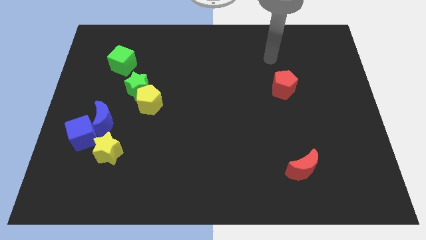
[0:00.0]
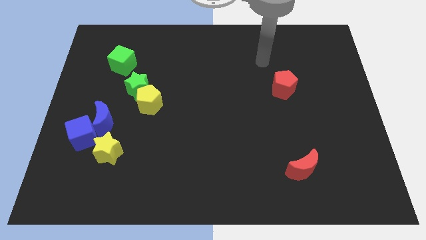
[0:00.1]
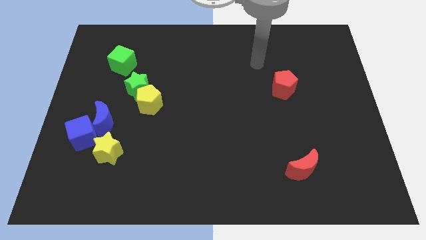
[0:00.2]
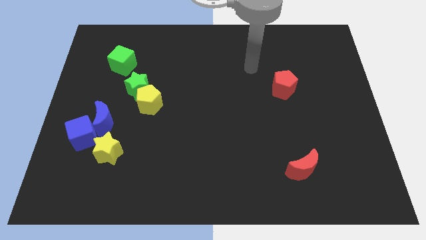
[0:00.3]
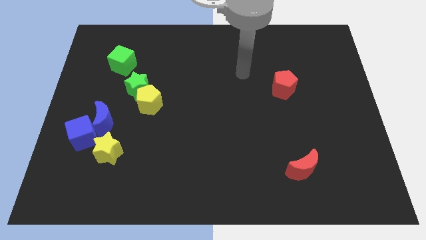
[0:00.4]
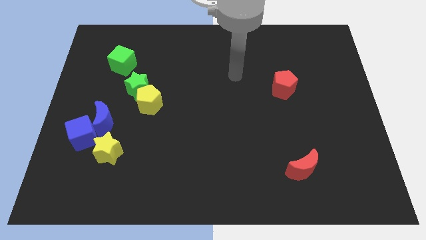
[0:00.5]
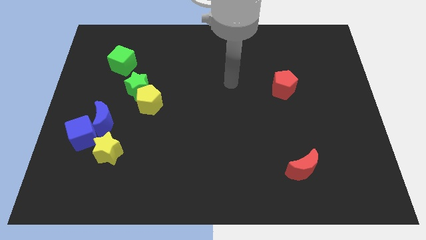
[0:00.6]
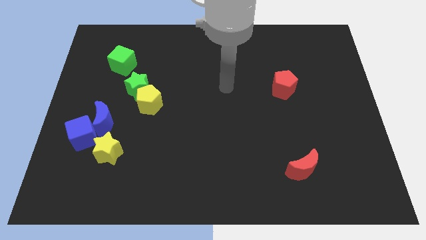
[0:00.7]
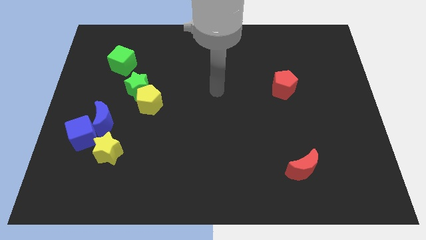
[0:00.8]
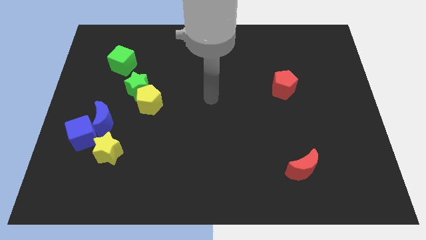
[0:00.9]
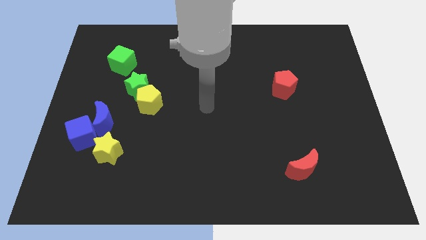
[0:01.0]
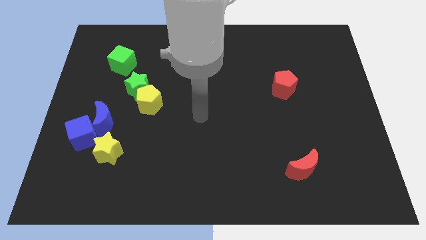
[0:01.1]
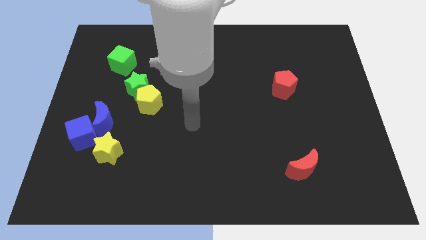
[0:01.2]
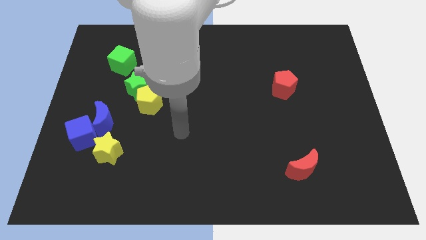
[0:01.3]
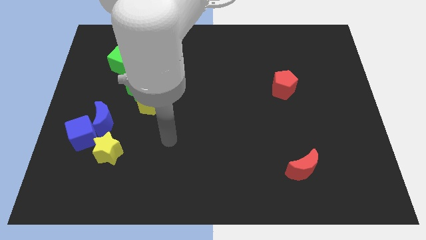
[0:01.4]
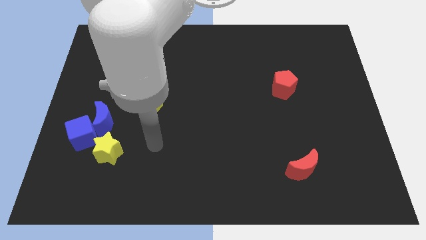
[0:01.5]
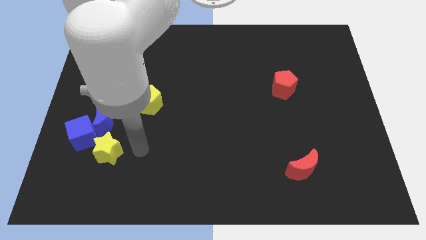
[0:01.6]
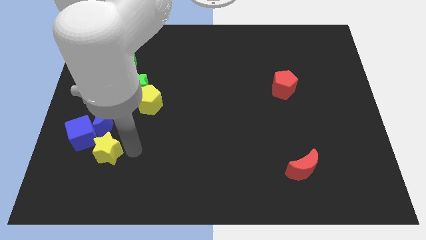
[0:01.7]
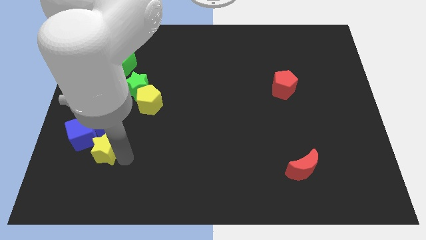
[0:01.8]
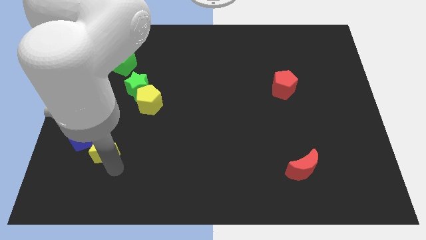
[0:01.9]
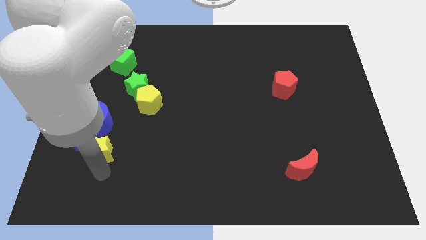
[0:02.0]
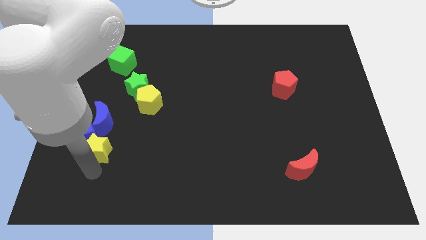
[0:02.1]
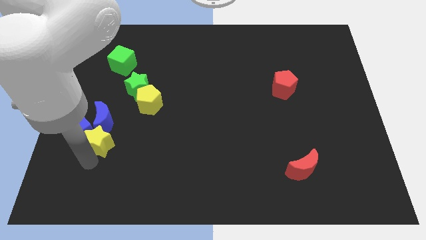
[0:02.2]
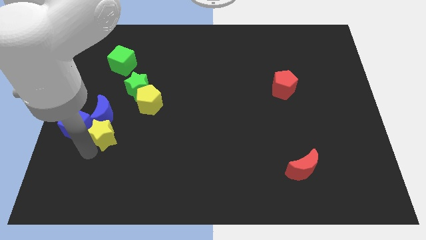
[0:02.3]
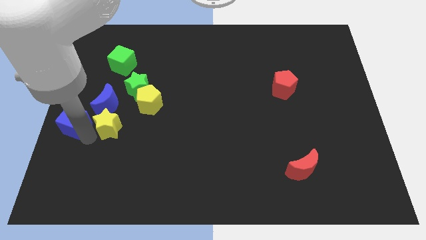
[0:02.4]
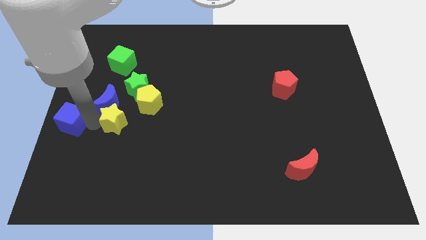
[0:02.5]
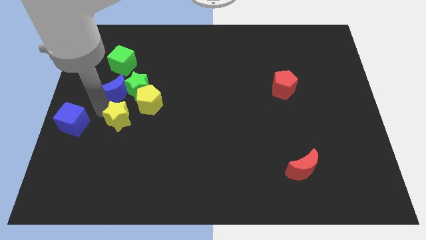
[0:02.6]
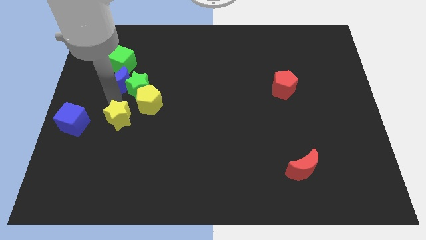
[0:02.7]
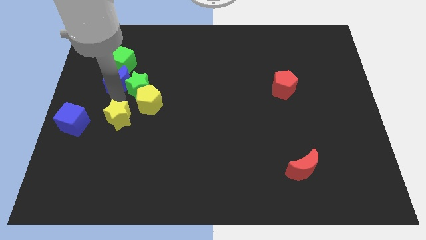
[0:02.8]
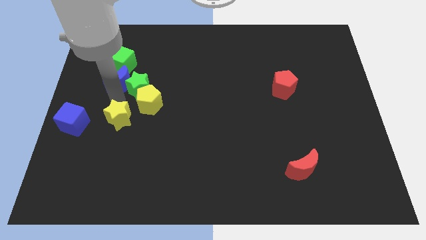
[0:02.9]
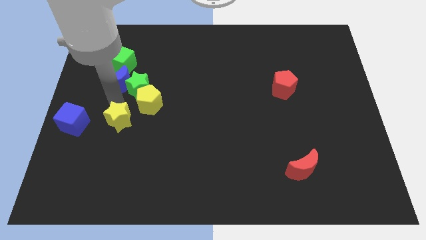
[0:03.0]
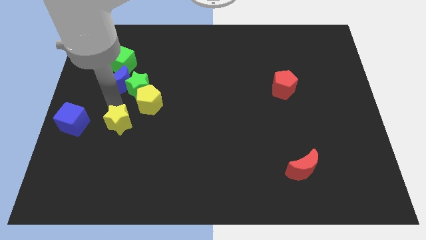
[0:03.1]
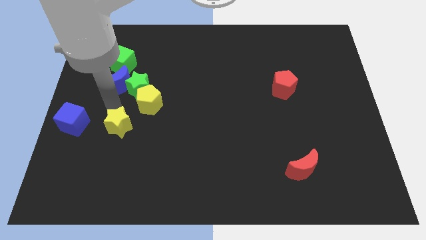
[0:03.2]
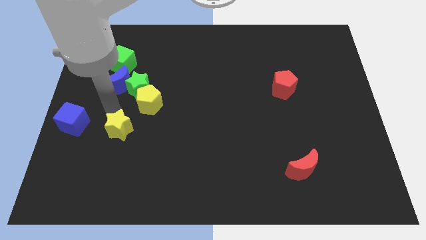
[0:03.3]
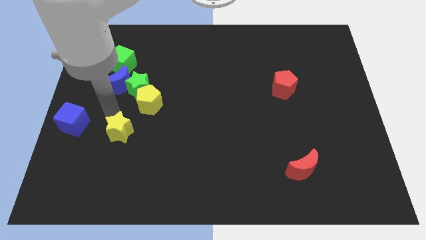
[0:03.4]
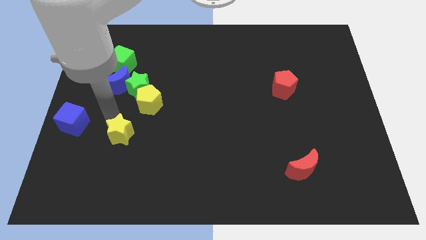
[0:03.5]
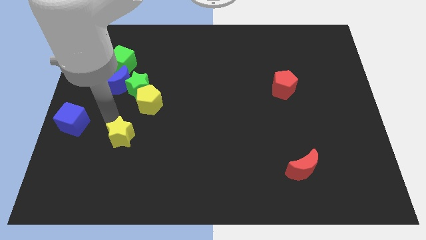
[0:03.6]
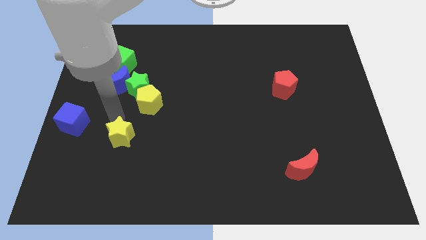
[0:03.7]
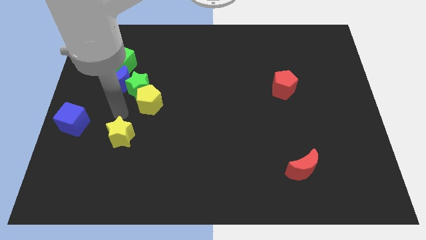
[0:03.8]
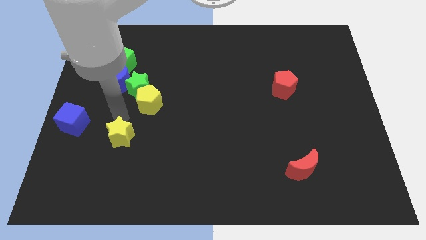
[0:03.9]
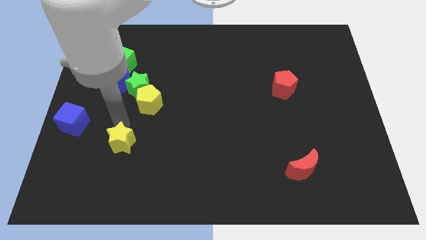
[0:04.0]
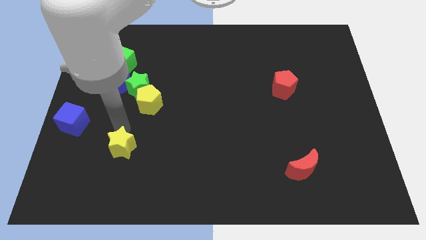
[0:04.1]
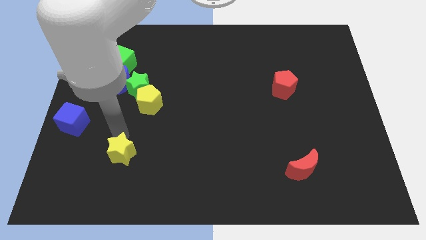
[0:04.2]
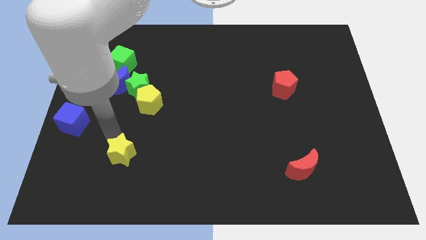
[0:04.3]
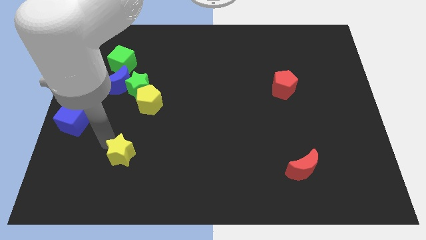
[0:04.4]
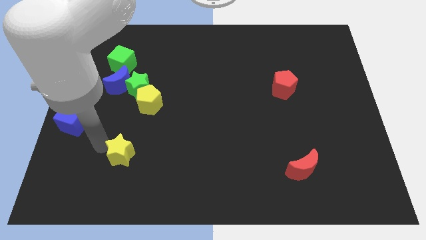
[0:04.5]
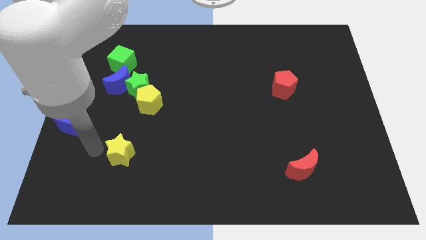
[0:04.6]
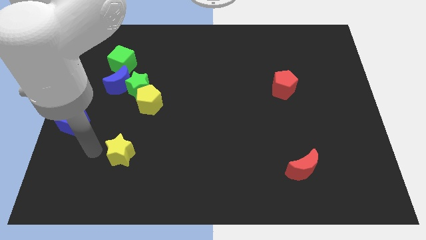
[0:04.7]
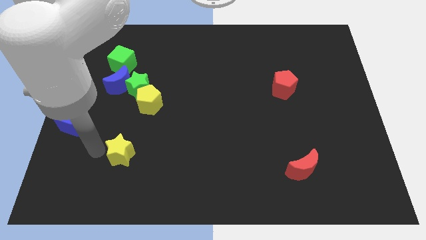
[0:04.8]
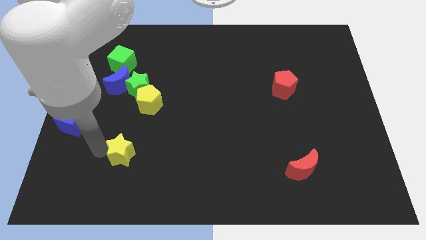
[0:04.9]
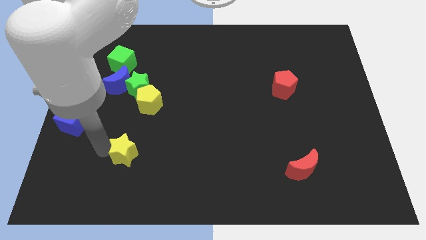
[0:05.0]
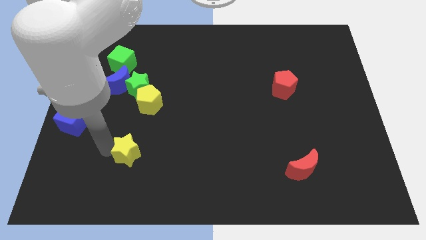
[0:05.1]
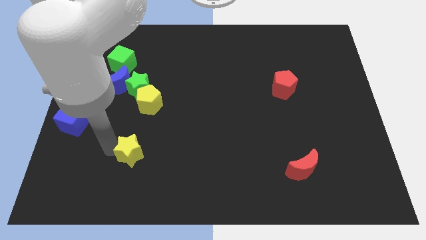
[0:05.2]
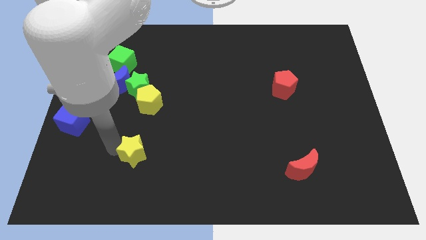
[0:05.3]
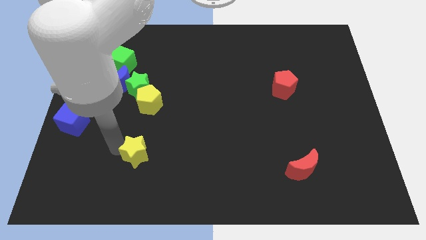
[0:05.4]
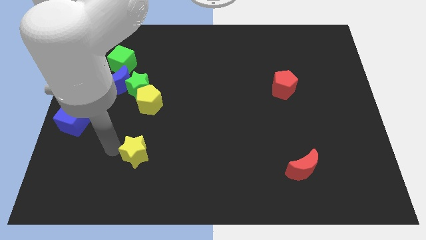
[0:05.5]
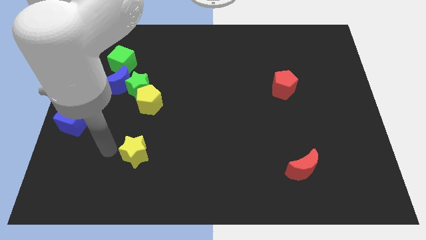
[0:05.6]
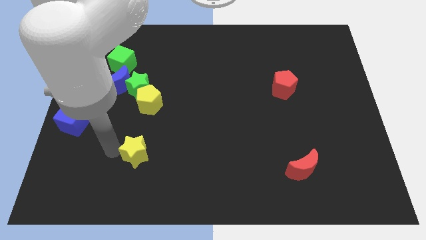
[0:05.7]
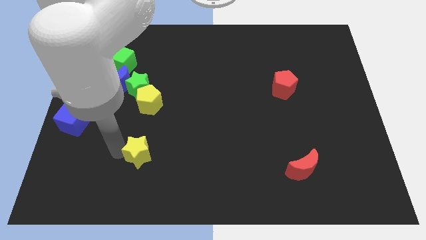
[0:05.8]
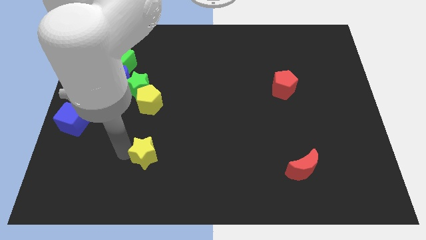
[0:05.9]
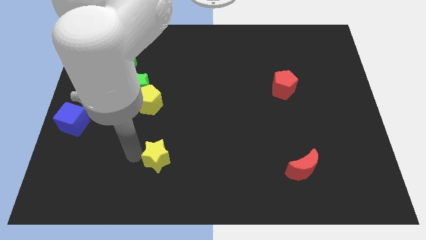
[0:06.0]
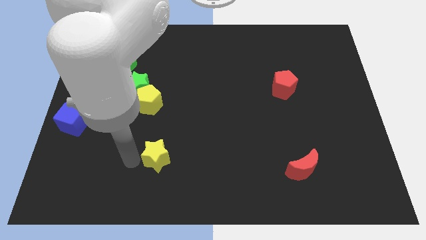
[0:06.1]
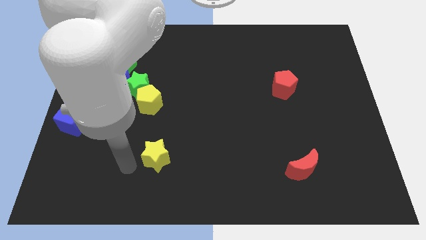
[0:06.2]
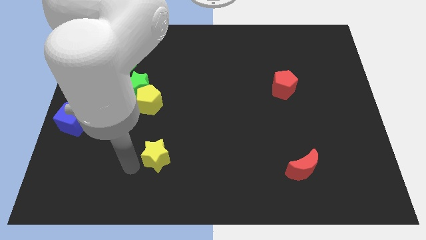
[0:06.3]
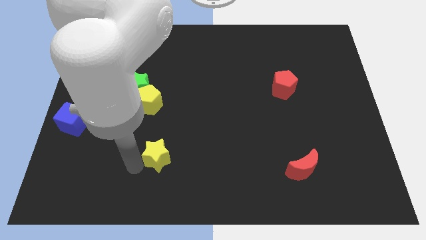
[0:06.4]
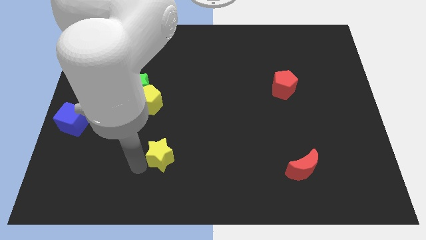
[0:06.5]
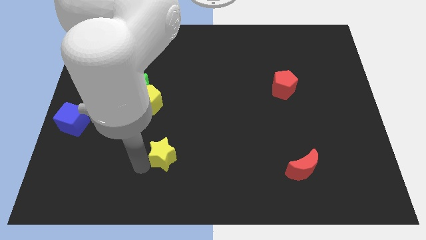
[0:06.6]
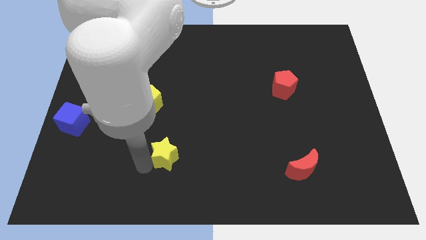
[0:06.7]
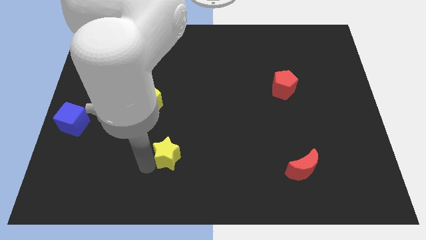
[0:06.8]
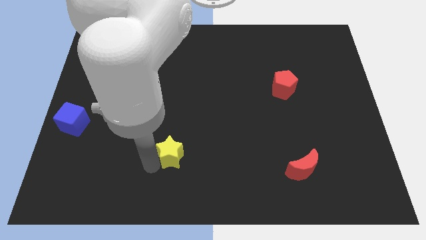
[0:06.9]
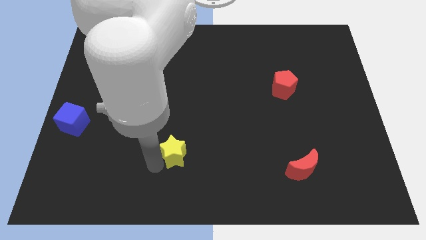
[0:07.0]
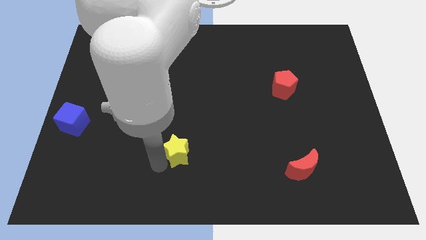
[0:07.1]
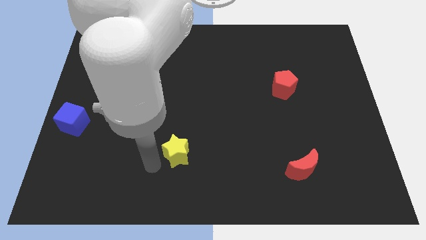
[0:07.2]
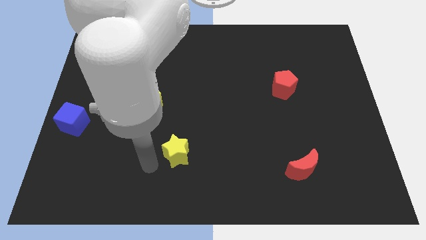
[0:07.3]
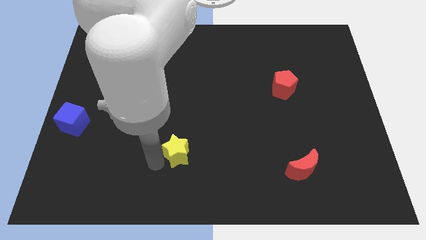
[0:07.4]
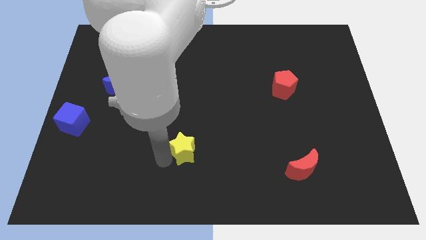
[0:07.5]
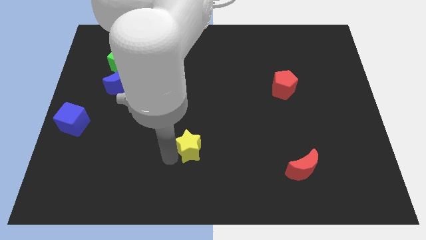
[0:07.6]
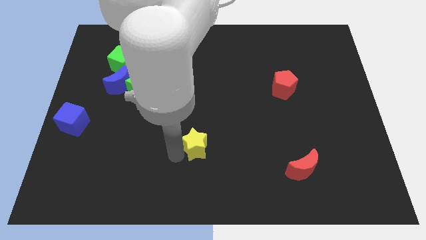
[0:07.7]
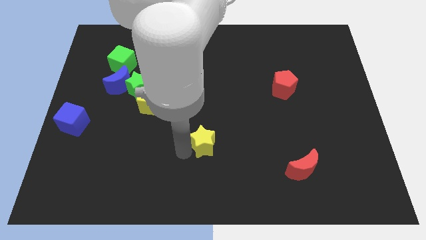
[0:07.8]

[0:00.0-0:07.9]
push the yellow star right

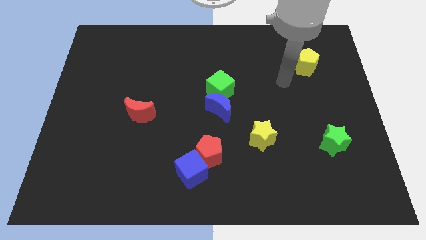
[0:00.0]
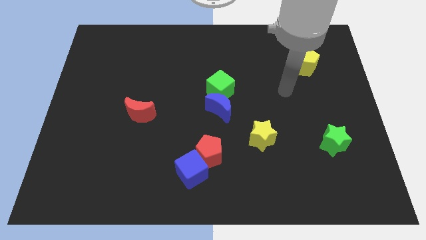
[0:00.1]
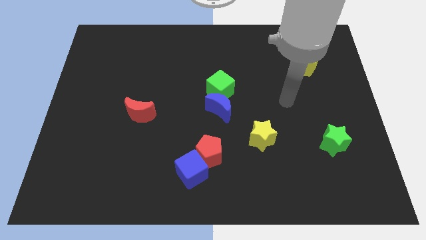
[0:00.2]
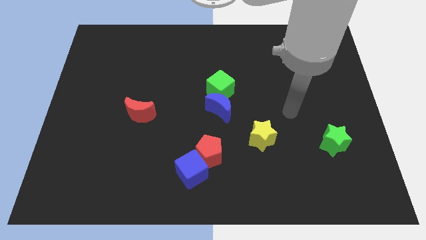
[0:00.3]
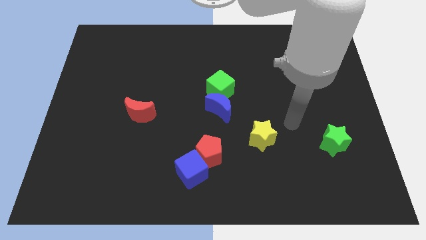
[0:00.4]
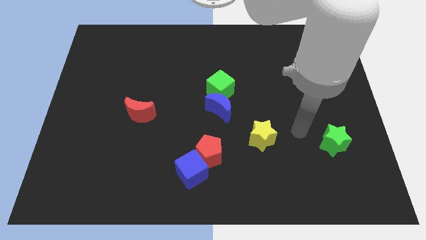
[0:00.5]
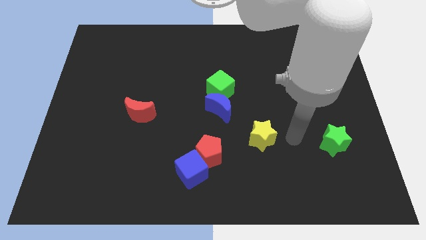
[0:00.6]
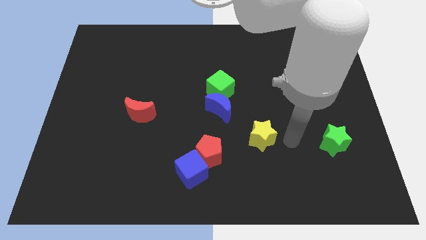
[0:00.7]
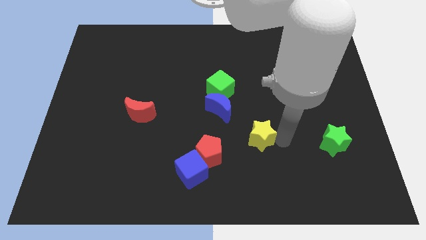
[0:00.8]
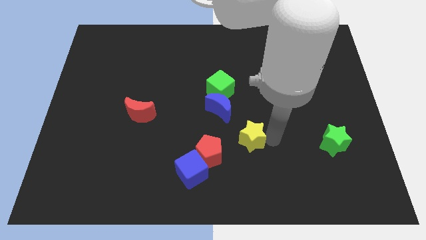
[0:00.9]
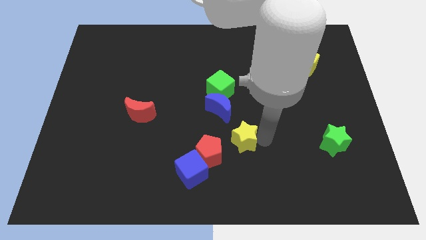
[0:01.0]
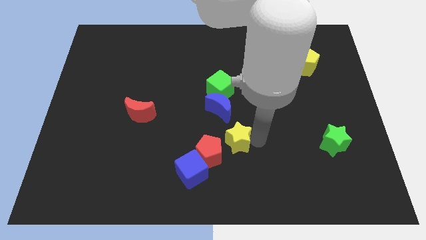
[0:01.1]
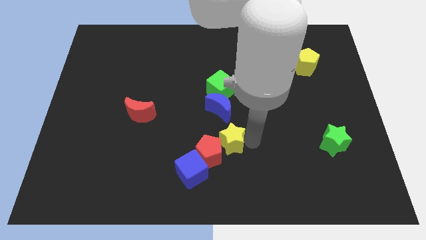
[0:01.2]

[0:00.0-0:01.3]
move the yellow star a little to the left
